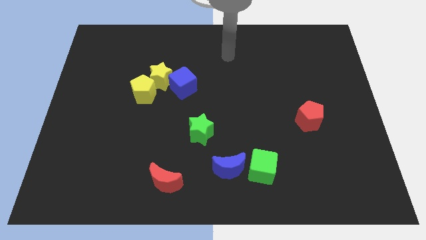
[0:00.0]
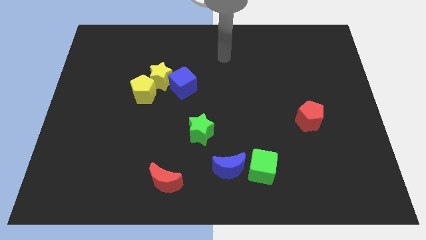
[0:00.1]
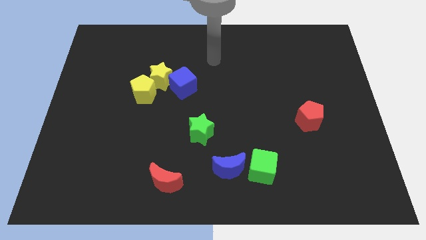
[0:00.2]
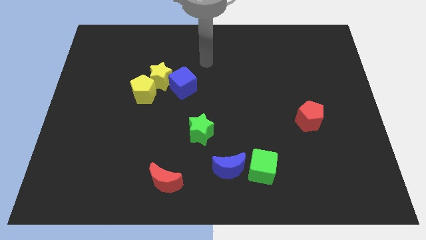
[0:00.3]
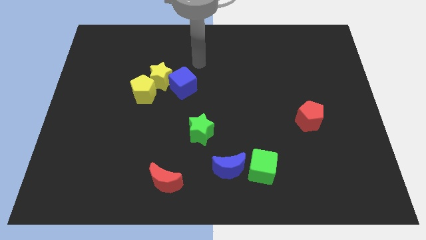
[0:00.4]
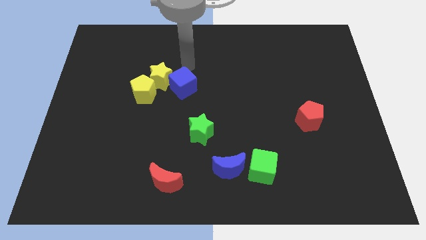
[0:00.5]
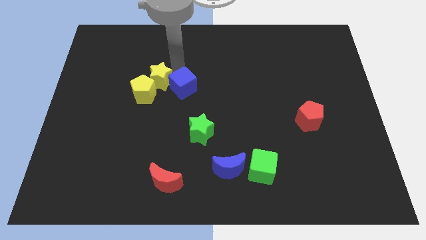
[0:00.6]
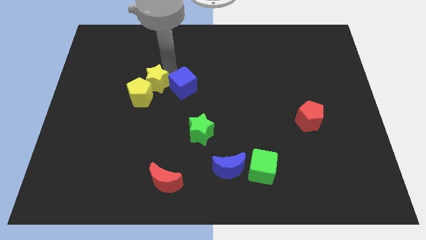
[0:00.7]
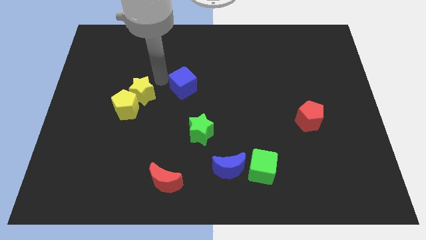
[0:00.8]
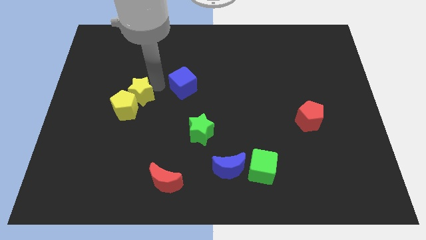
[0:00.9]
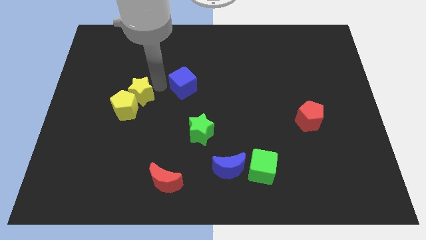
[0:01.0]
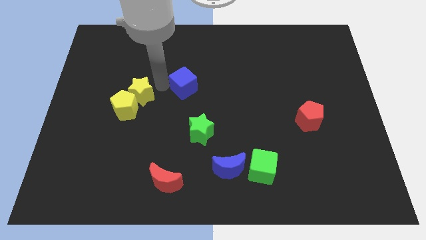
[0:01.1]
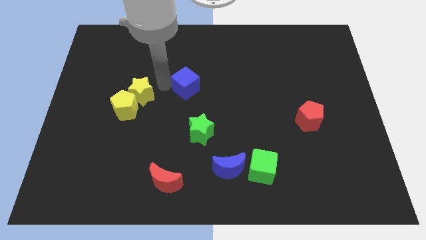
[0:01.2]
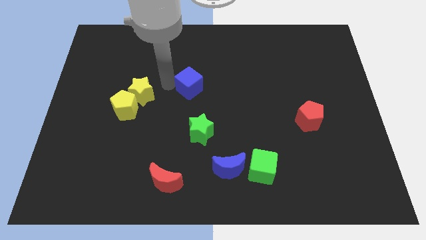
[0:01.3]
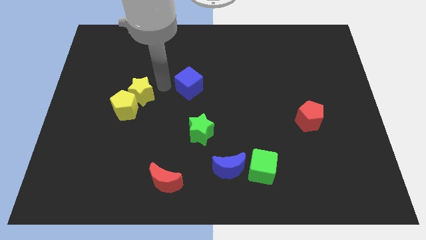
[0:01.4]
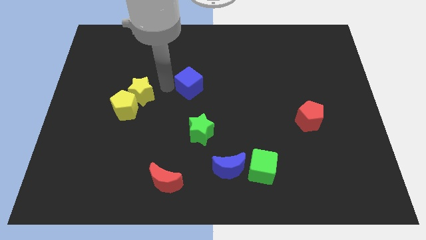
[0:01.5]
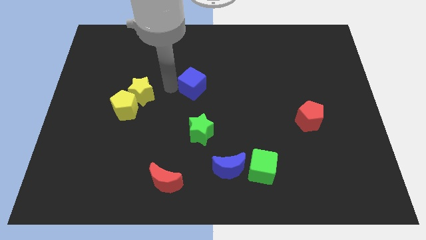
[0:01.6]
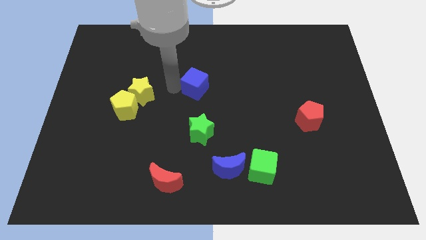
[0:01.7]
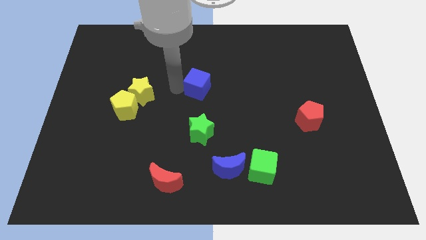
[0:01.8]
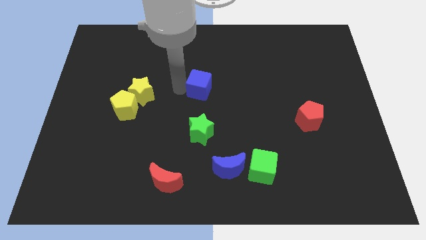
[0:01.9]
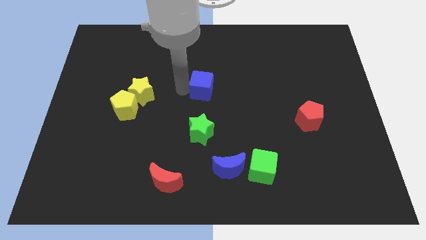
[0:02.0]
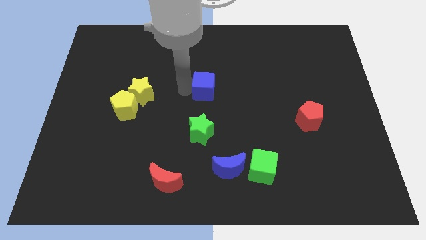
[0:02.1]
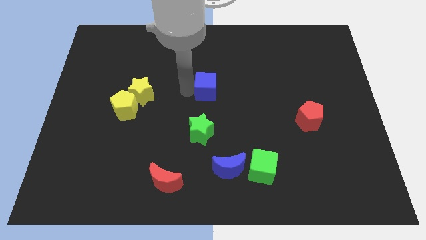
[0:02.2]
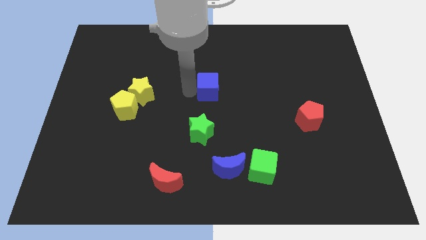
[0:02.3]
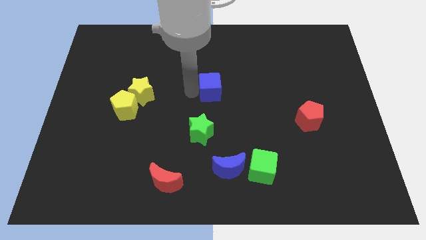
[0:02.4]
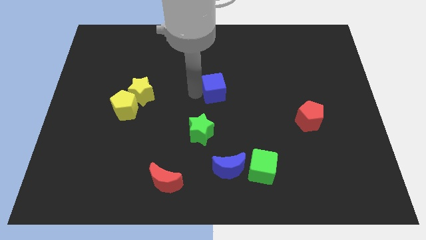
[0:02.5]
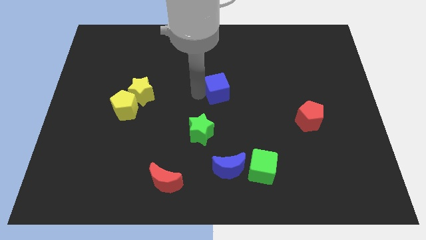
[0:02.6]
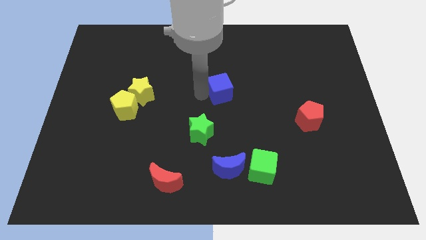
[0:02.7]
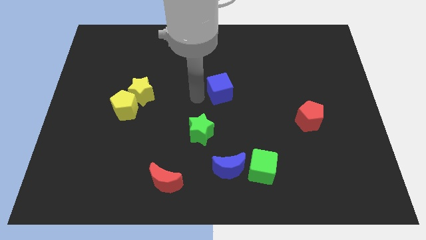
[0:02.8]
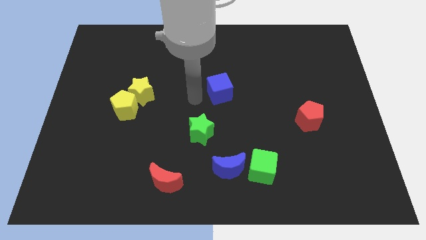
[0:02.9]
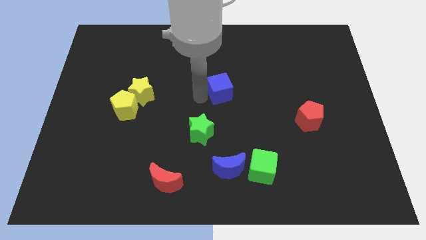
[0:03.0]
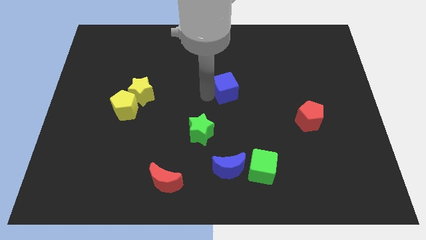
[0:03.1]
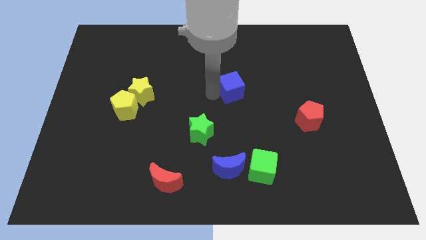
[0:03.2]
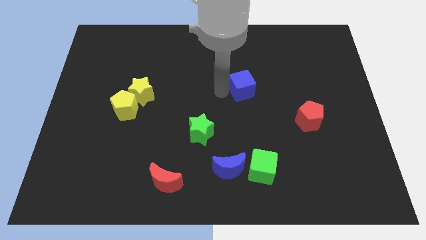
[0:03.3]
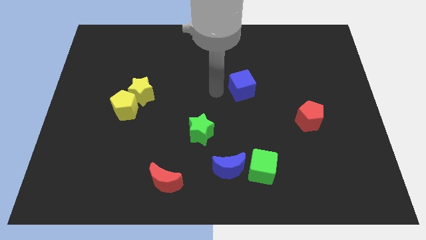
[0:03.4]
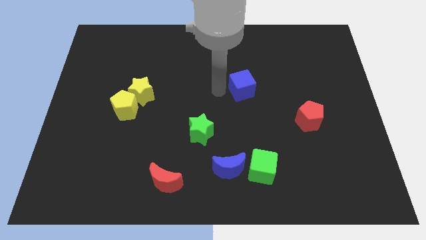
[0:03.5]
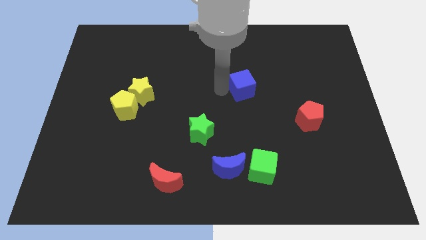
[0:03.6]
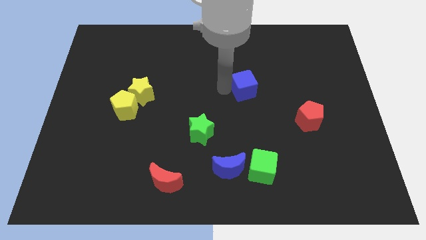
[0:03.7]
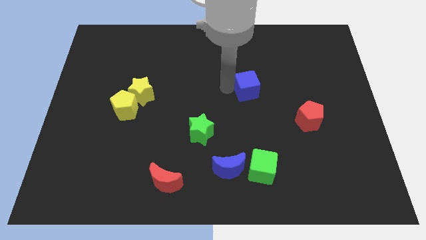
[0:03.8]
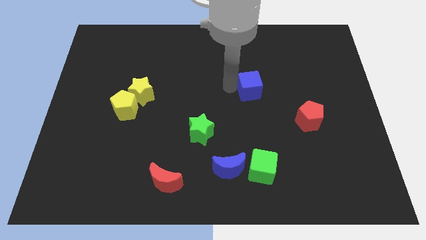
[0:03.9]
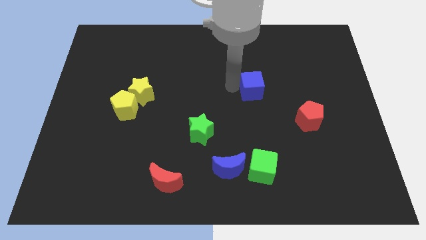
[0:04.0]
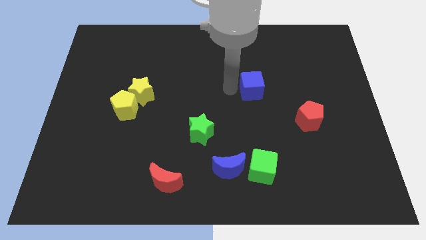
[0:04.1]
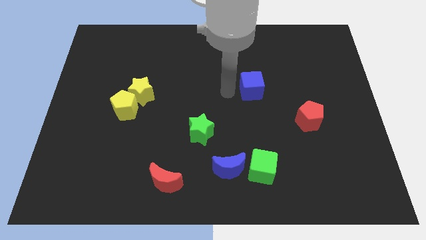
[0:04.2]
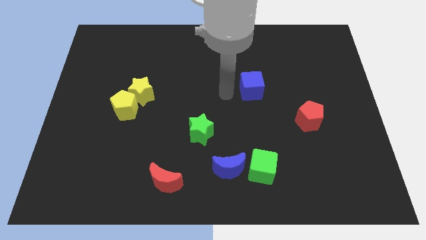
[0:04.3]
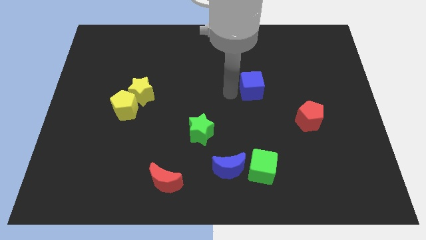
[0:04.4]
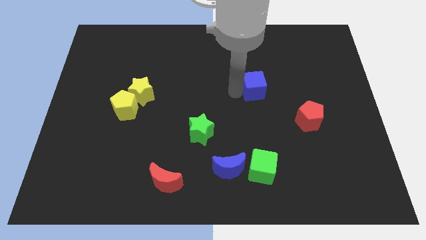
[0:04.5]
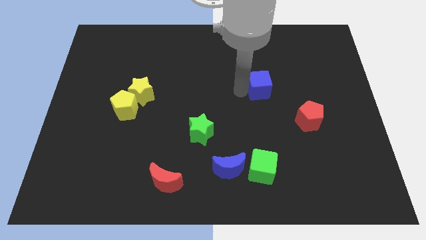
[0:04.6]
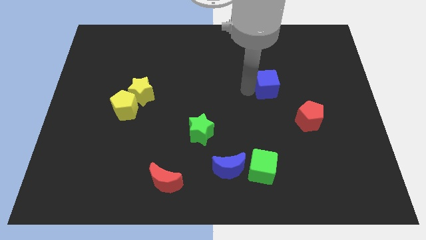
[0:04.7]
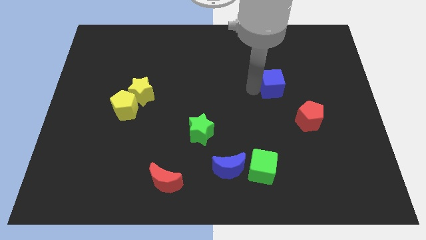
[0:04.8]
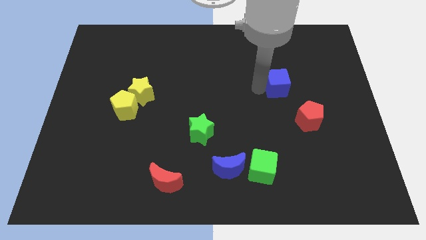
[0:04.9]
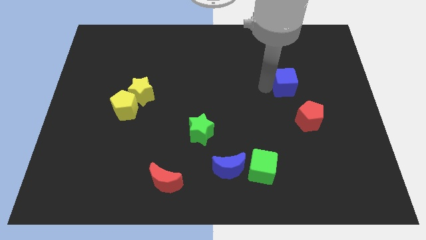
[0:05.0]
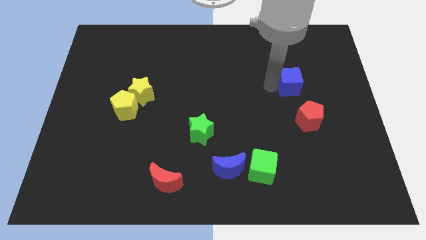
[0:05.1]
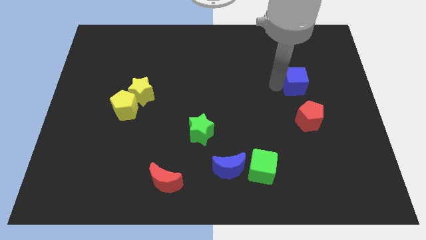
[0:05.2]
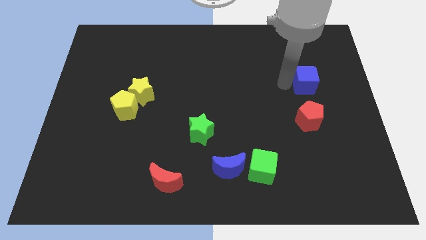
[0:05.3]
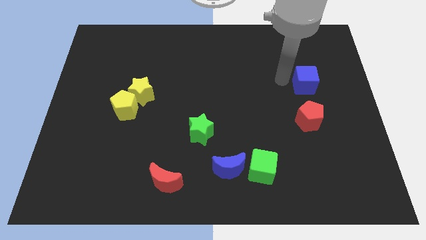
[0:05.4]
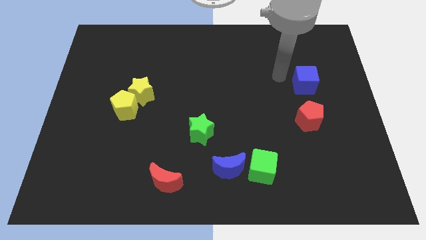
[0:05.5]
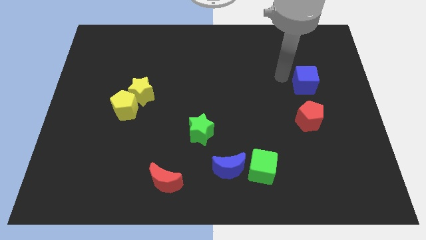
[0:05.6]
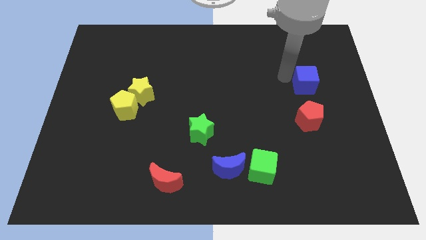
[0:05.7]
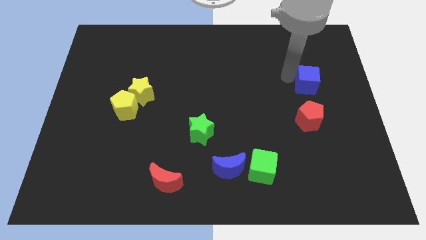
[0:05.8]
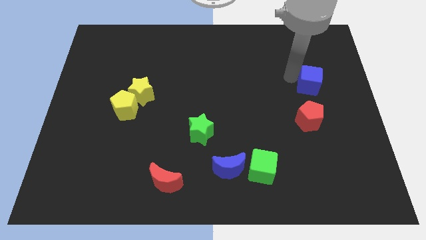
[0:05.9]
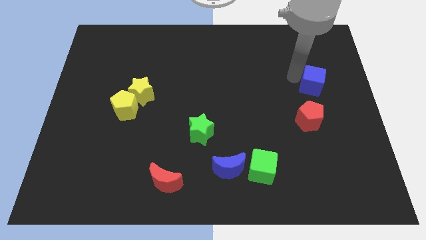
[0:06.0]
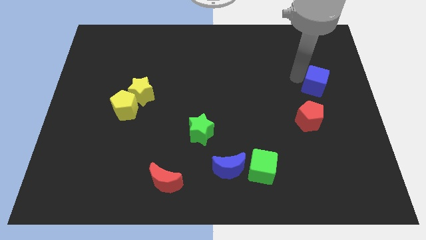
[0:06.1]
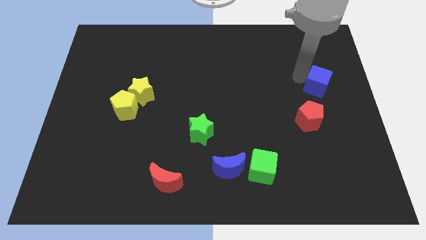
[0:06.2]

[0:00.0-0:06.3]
slide the blue cube to the right side

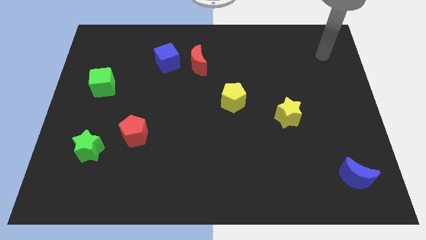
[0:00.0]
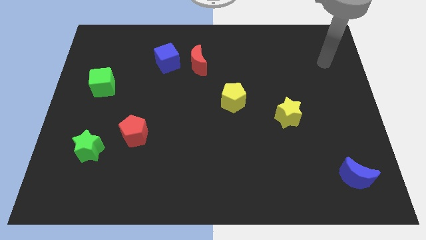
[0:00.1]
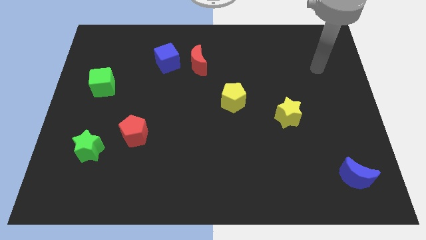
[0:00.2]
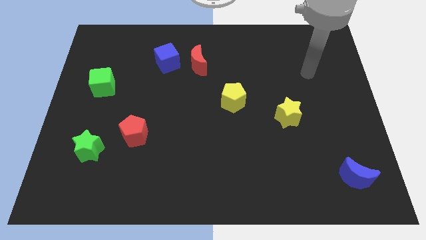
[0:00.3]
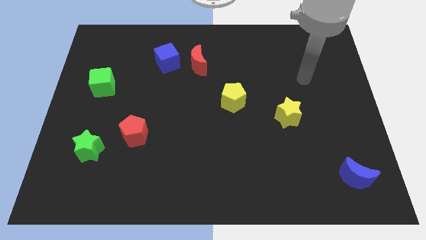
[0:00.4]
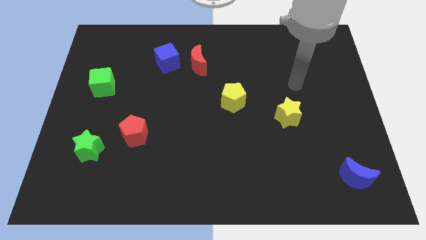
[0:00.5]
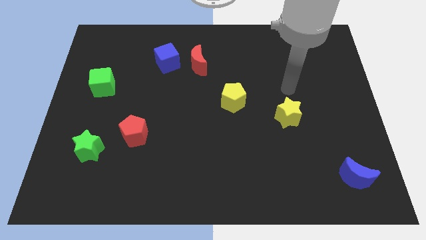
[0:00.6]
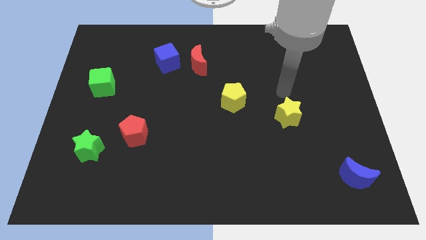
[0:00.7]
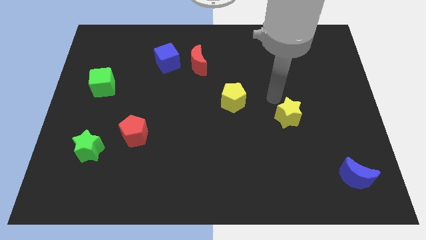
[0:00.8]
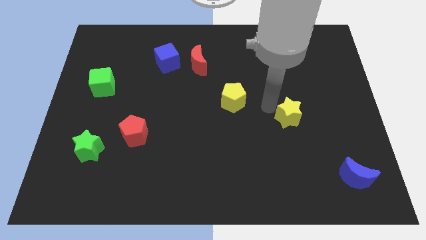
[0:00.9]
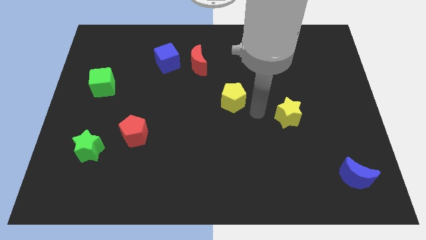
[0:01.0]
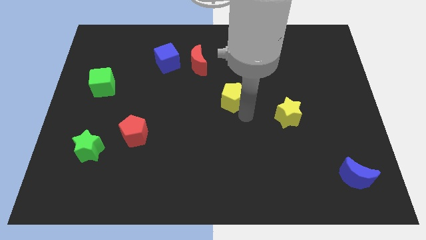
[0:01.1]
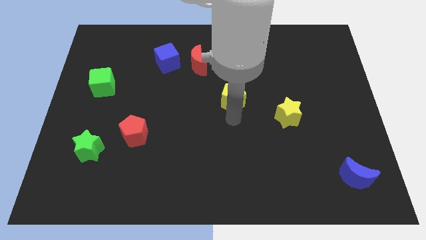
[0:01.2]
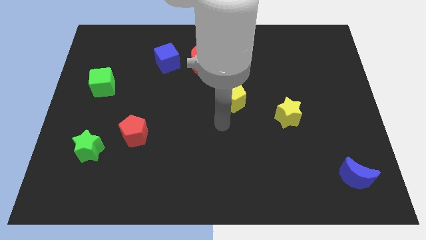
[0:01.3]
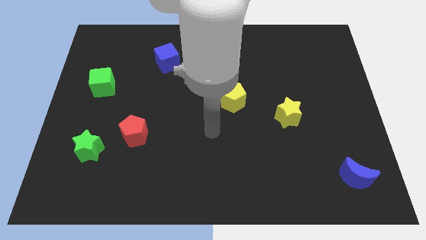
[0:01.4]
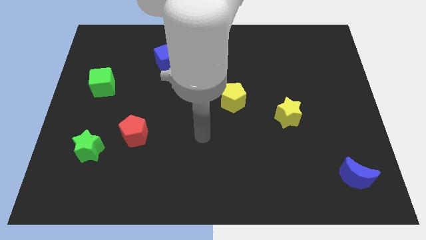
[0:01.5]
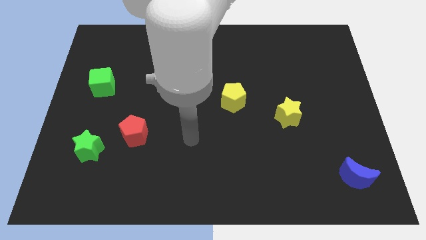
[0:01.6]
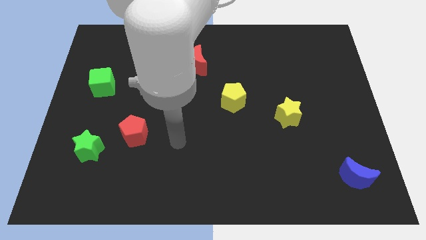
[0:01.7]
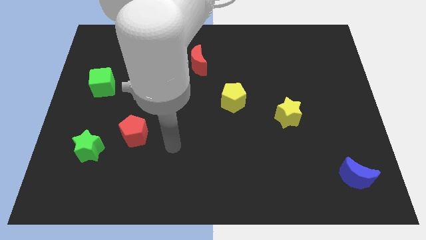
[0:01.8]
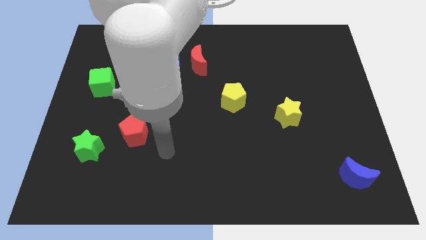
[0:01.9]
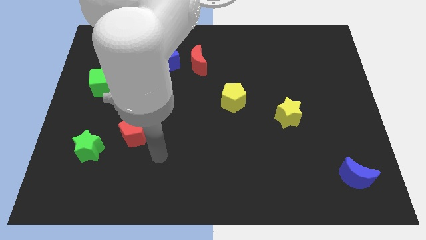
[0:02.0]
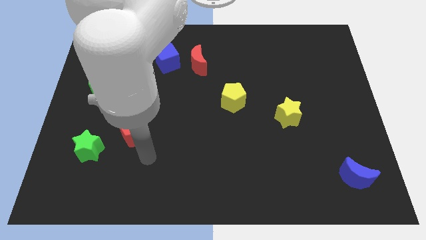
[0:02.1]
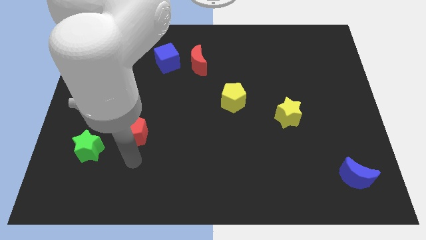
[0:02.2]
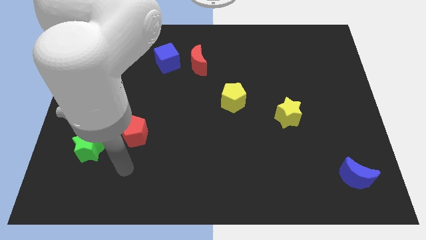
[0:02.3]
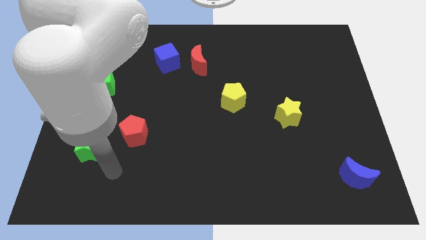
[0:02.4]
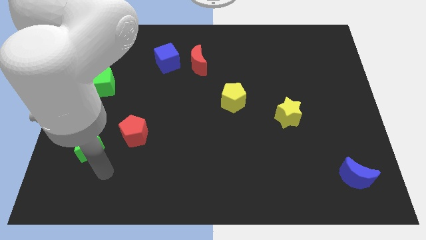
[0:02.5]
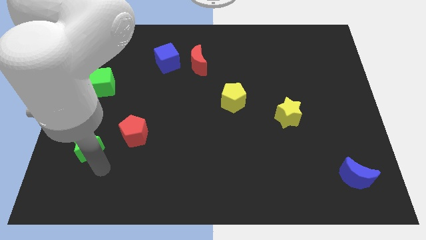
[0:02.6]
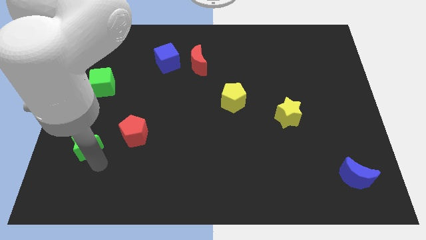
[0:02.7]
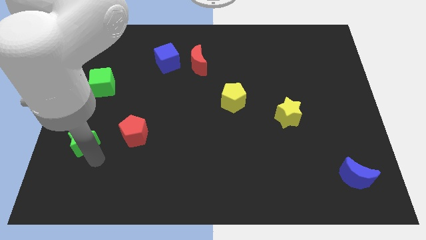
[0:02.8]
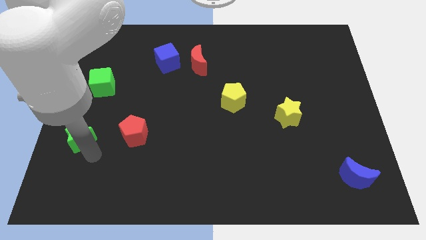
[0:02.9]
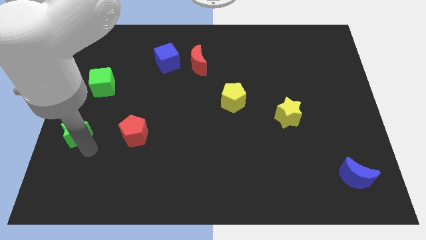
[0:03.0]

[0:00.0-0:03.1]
put the green star to the left side of the board
